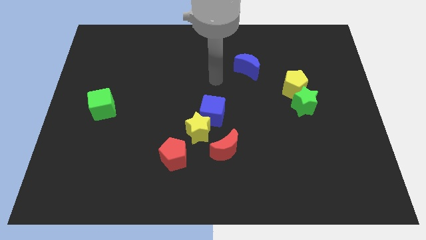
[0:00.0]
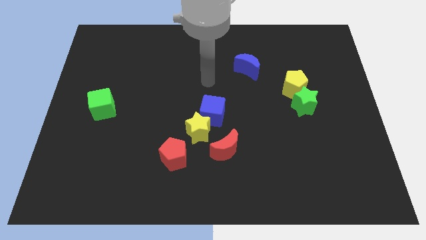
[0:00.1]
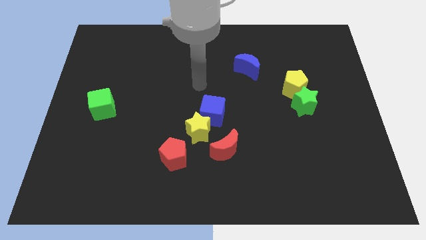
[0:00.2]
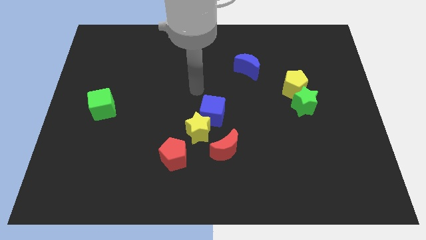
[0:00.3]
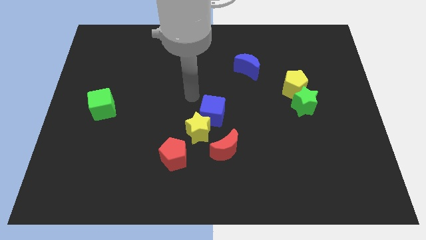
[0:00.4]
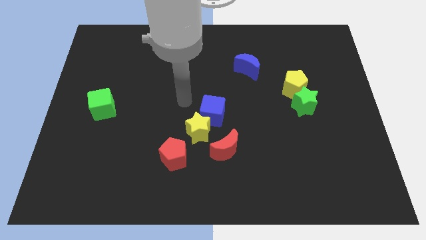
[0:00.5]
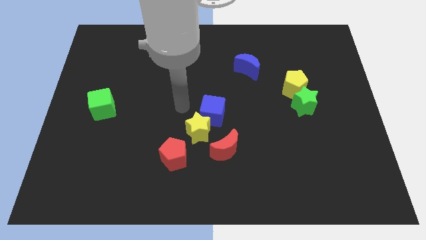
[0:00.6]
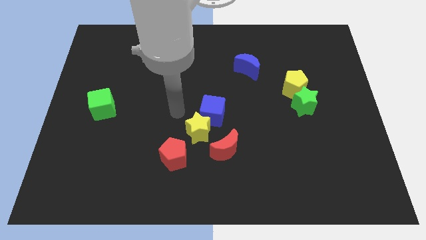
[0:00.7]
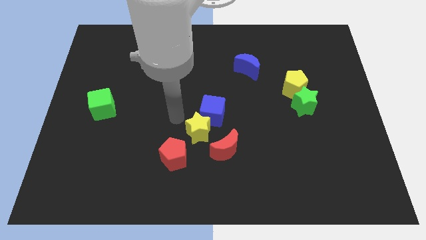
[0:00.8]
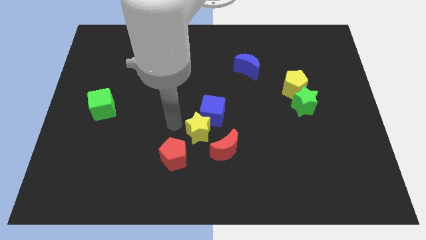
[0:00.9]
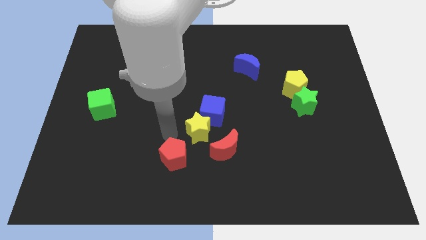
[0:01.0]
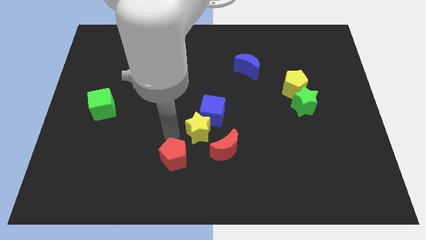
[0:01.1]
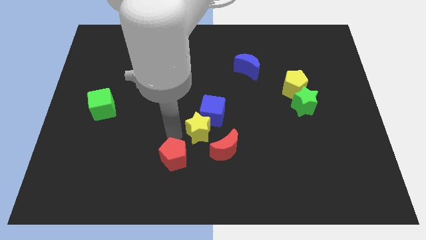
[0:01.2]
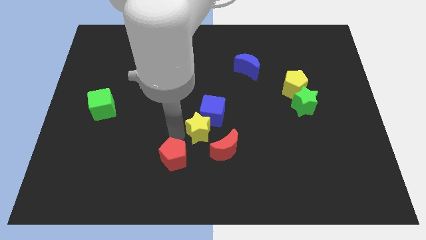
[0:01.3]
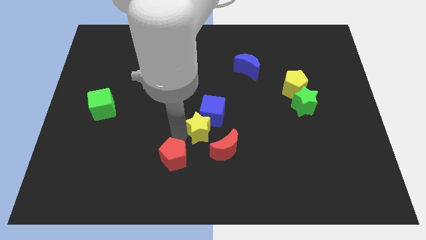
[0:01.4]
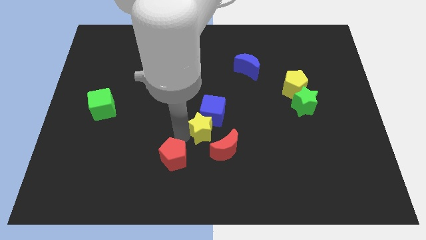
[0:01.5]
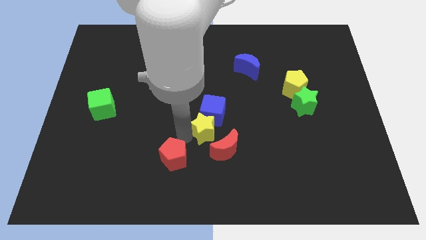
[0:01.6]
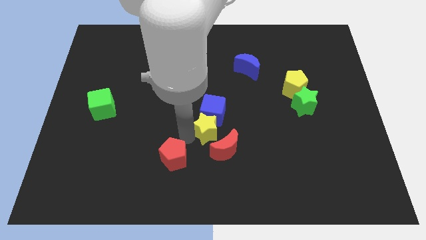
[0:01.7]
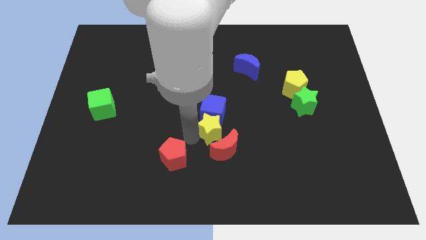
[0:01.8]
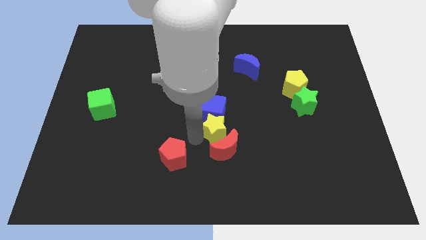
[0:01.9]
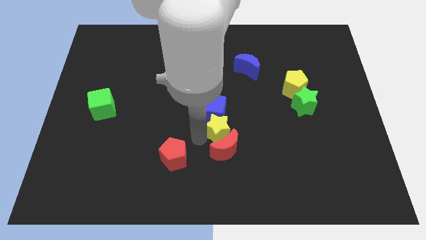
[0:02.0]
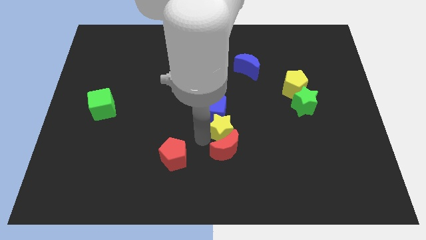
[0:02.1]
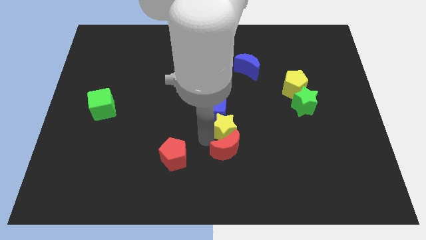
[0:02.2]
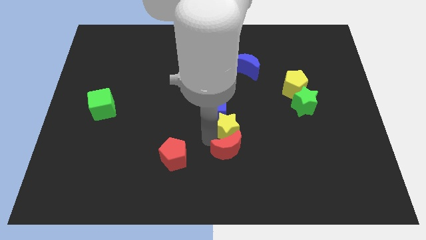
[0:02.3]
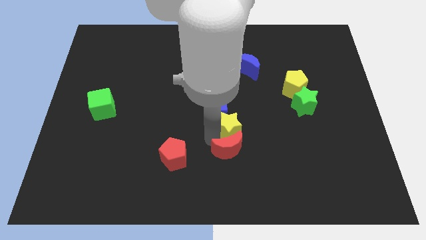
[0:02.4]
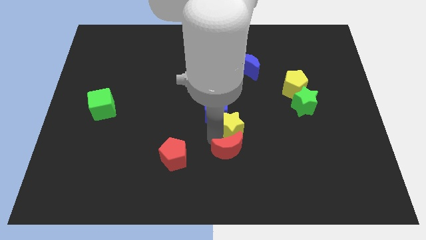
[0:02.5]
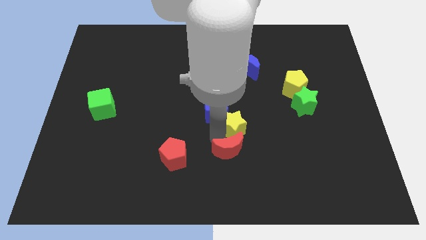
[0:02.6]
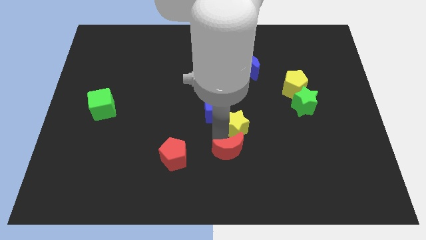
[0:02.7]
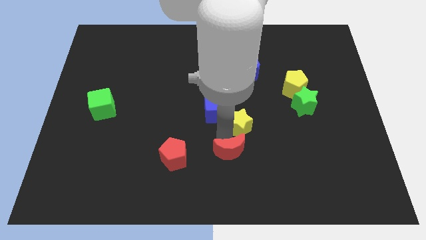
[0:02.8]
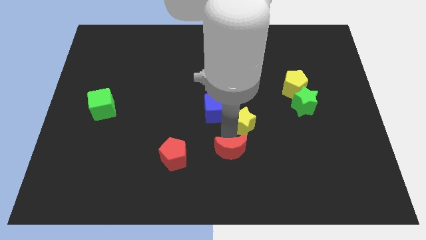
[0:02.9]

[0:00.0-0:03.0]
push the yellow star up and to the right a little bit

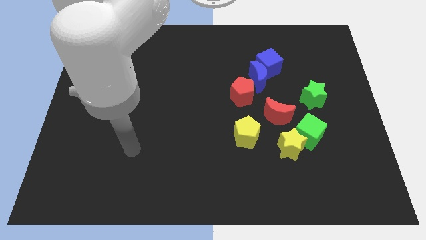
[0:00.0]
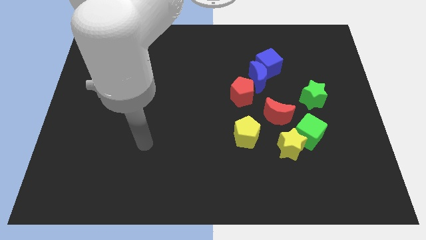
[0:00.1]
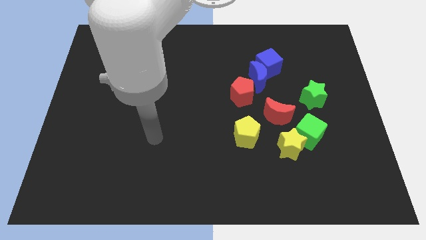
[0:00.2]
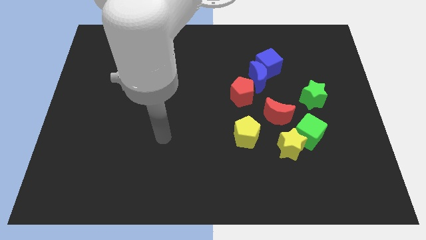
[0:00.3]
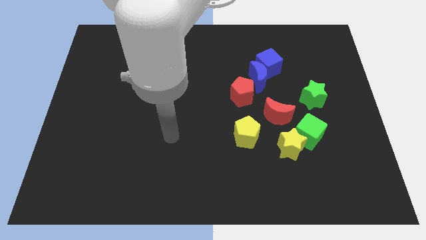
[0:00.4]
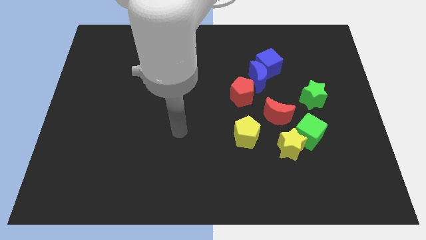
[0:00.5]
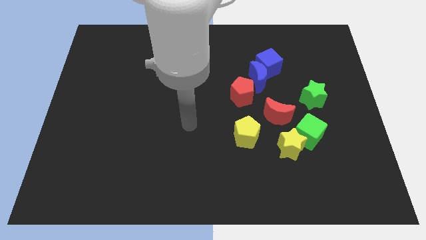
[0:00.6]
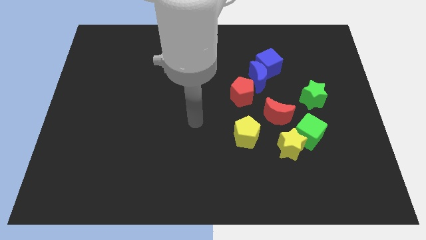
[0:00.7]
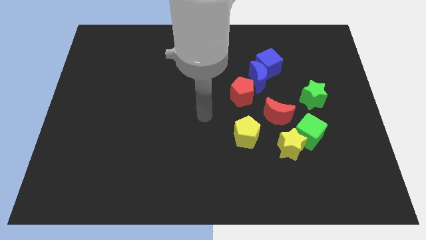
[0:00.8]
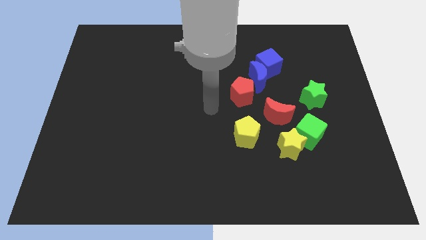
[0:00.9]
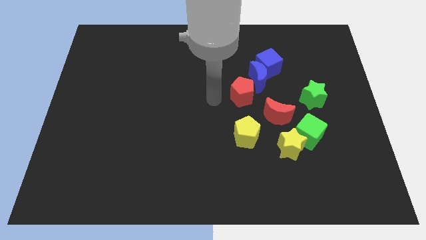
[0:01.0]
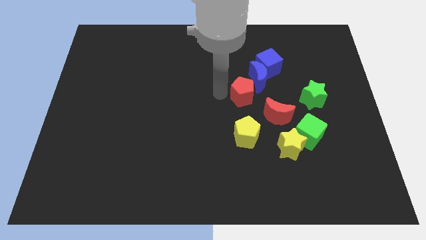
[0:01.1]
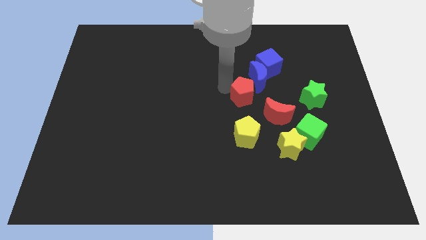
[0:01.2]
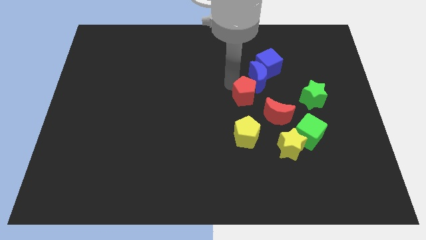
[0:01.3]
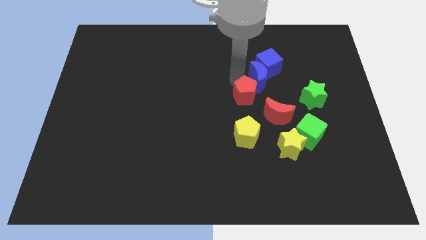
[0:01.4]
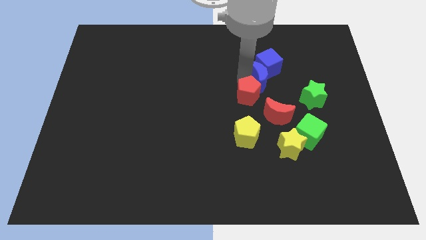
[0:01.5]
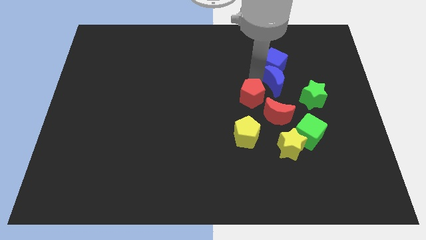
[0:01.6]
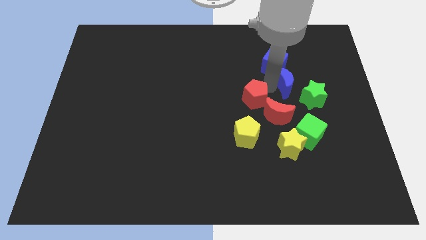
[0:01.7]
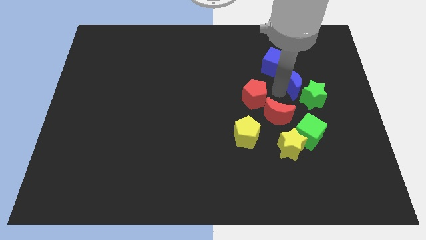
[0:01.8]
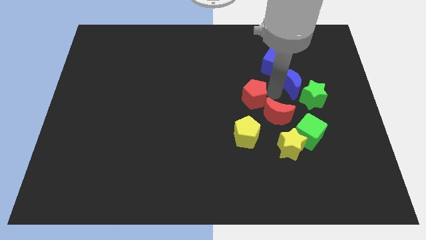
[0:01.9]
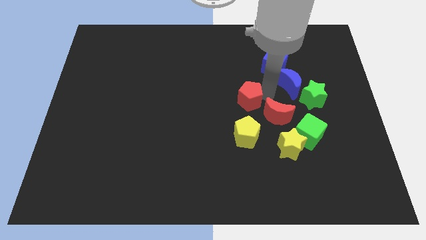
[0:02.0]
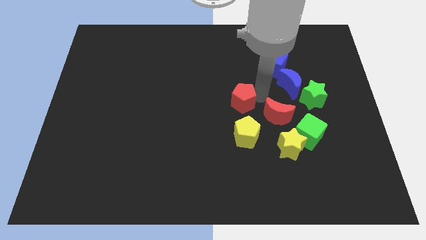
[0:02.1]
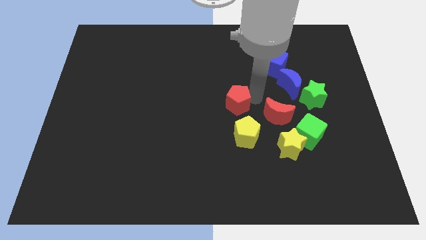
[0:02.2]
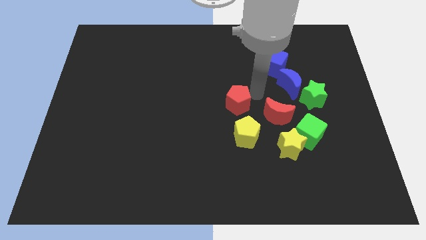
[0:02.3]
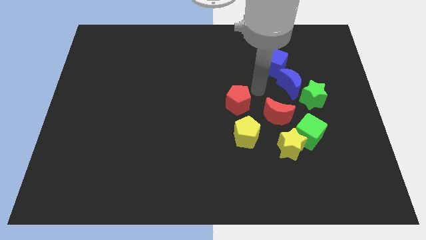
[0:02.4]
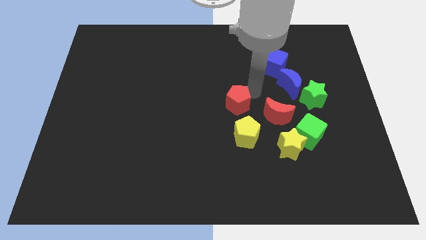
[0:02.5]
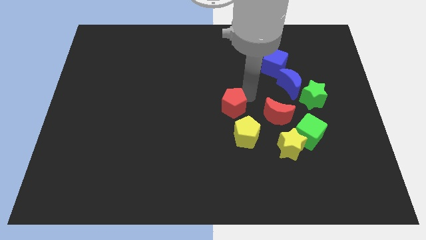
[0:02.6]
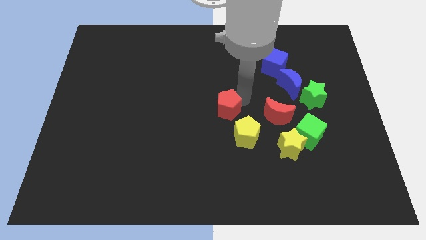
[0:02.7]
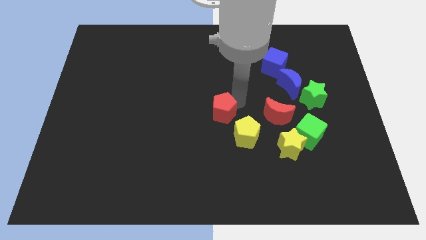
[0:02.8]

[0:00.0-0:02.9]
slightly slide the red pentagon down and left diagonally

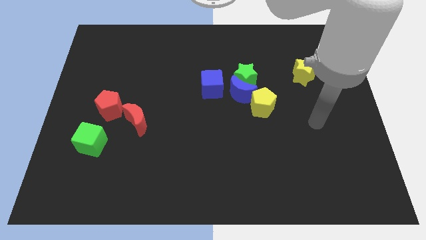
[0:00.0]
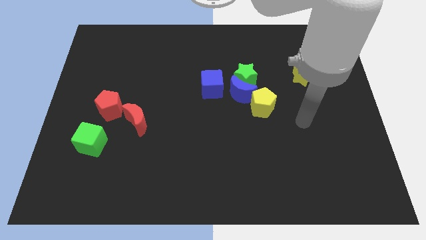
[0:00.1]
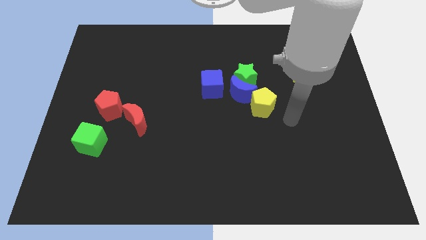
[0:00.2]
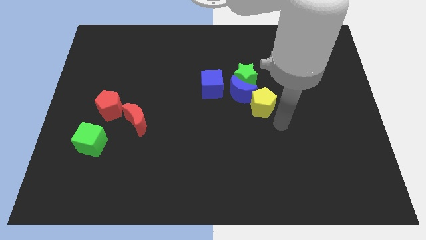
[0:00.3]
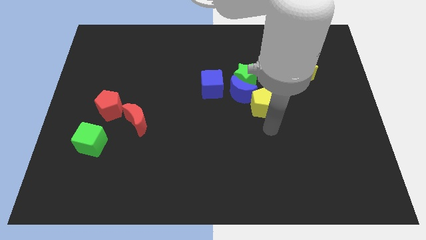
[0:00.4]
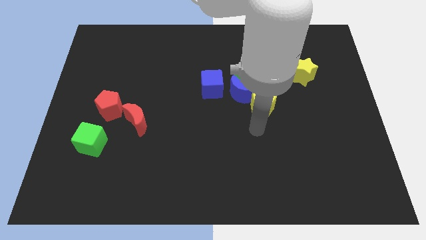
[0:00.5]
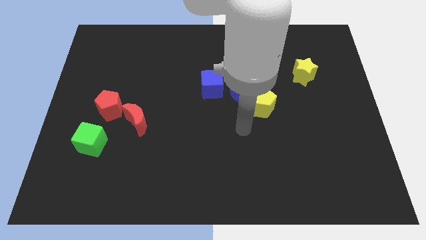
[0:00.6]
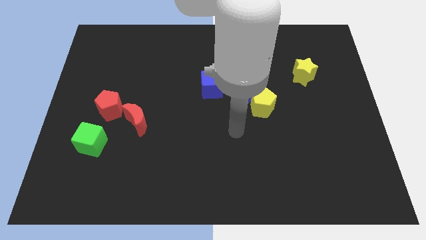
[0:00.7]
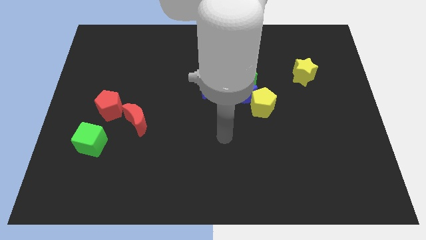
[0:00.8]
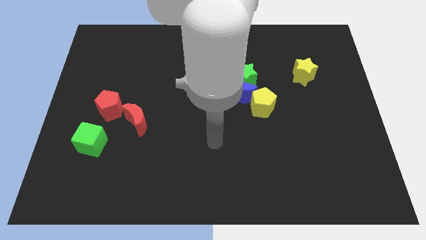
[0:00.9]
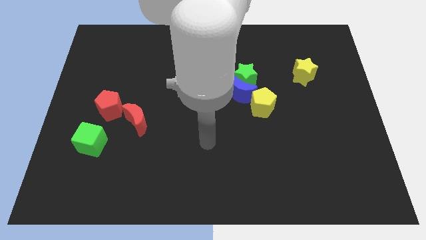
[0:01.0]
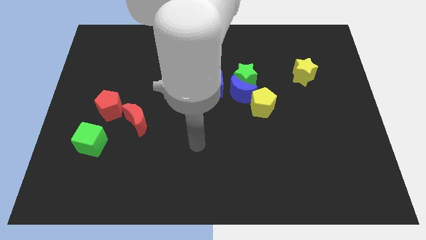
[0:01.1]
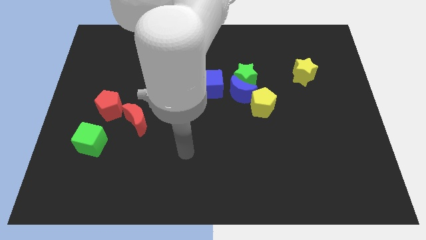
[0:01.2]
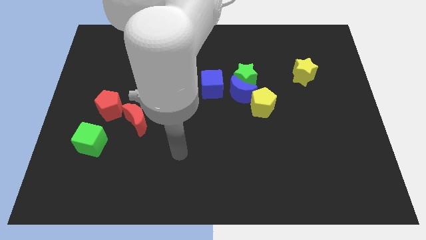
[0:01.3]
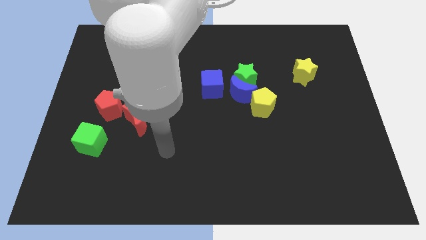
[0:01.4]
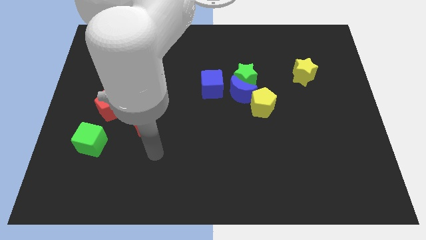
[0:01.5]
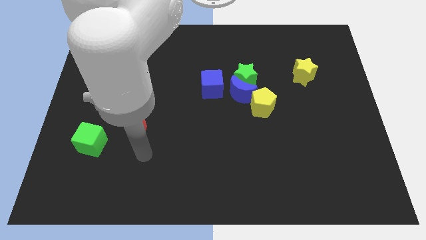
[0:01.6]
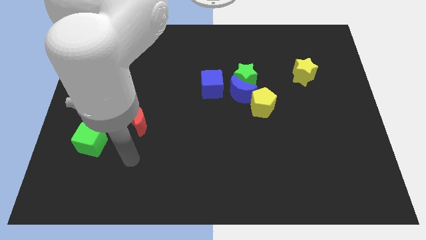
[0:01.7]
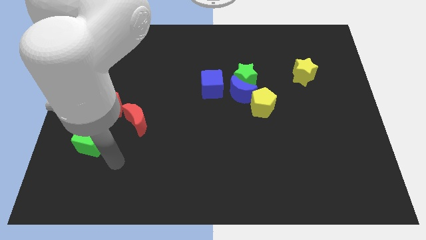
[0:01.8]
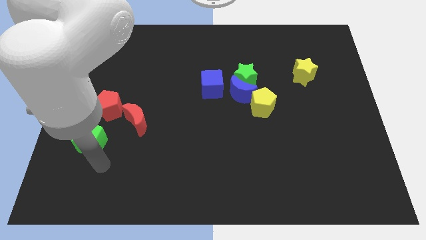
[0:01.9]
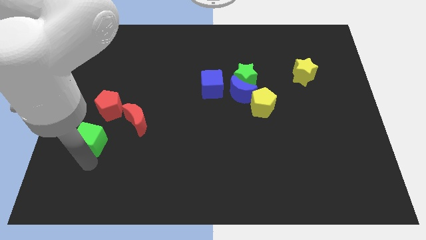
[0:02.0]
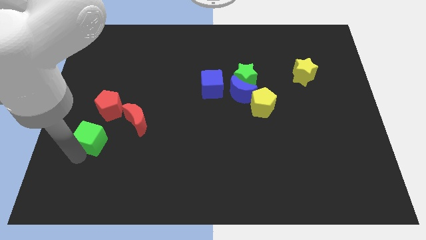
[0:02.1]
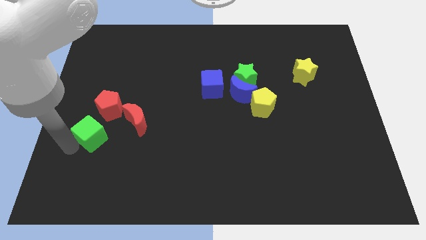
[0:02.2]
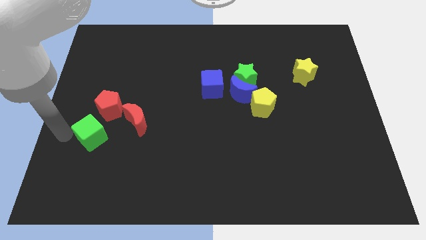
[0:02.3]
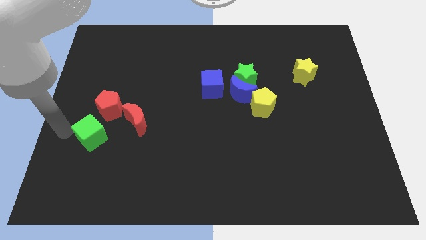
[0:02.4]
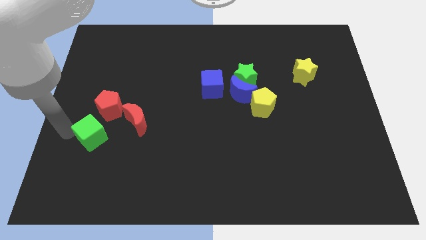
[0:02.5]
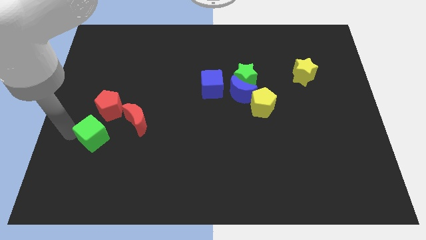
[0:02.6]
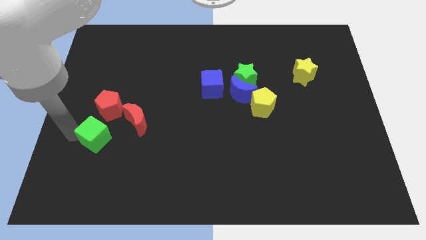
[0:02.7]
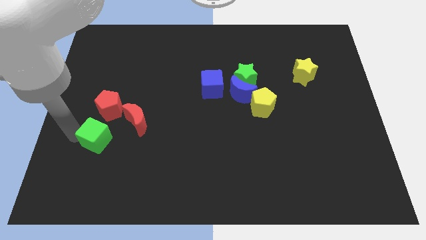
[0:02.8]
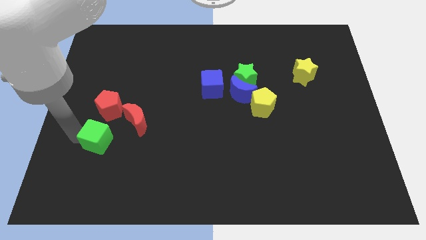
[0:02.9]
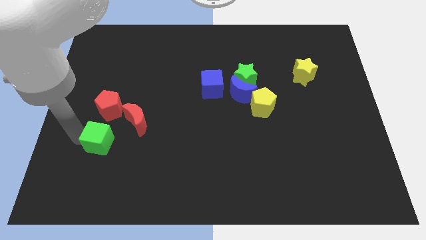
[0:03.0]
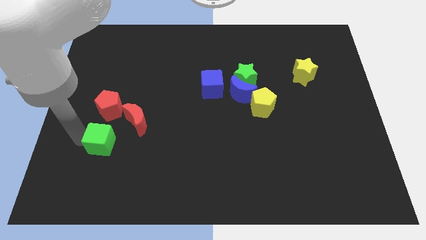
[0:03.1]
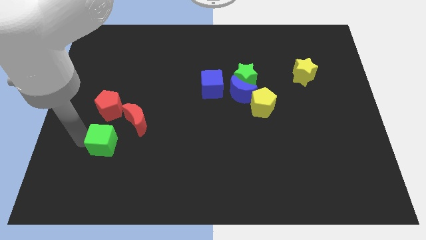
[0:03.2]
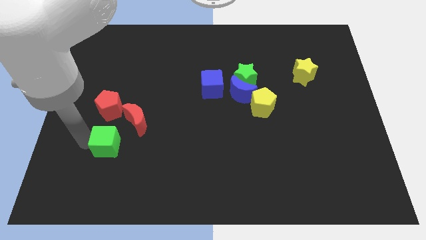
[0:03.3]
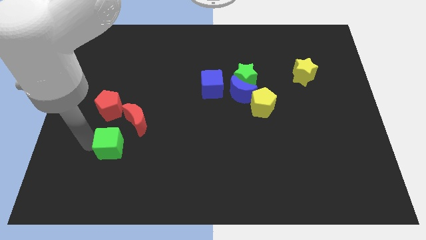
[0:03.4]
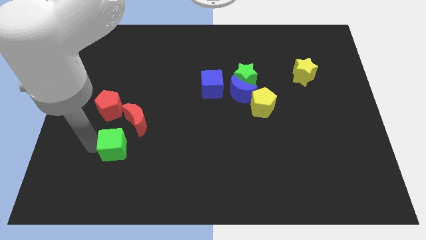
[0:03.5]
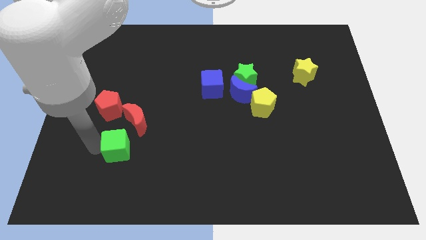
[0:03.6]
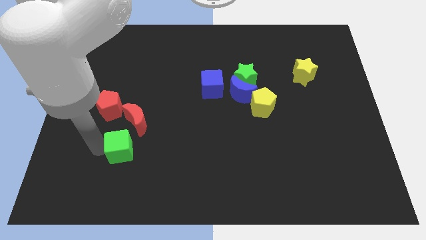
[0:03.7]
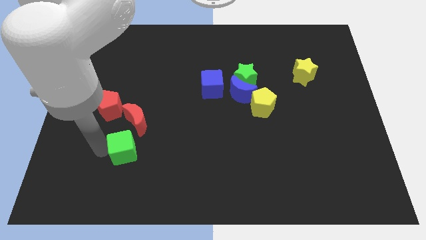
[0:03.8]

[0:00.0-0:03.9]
slightly push the green cube to the right
